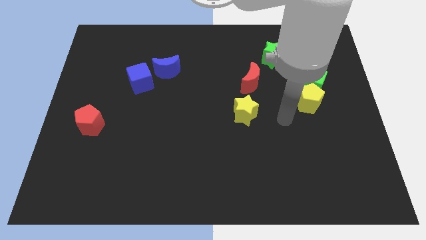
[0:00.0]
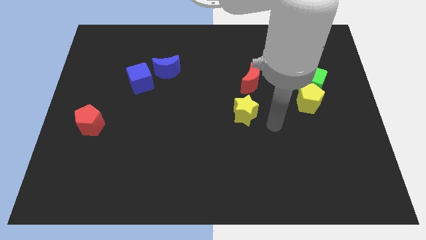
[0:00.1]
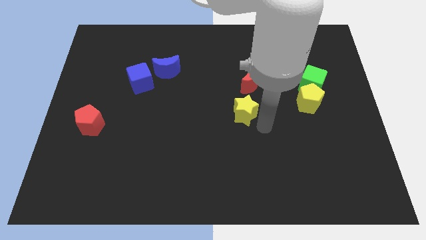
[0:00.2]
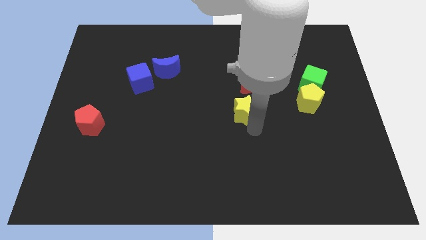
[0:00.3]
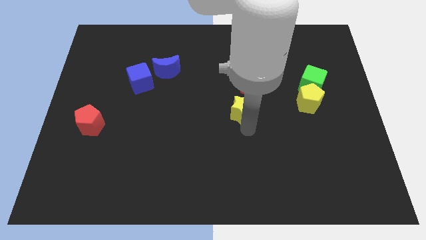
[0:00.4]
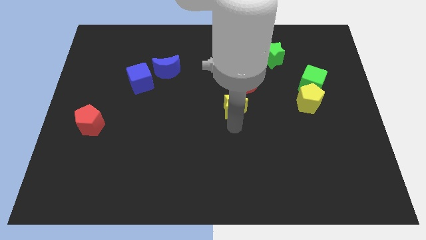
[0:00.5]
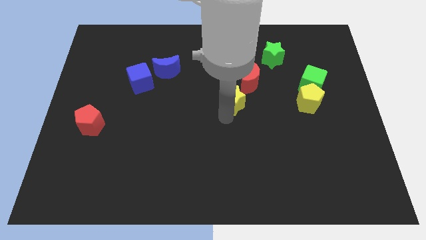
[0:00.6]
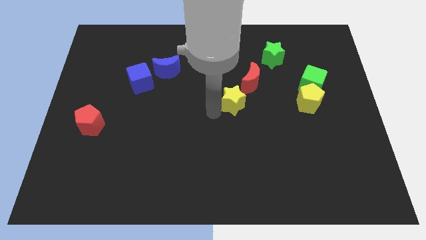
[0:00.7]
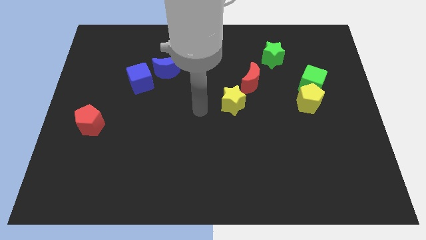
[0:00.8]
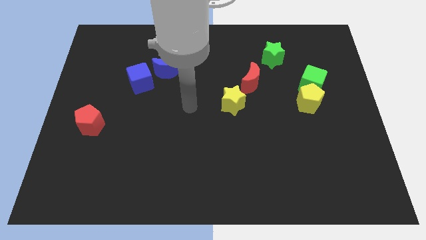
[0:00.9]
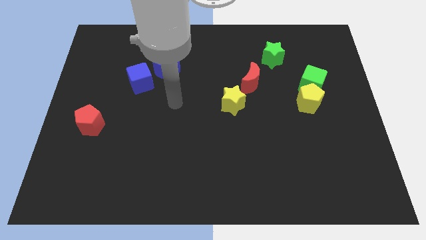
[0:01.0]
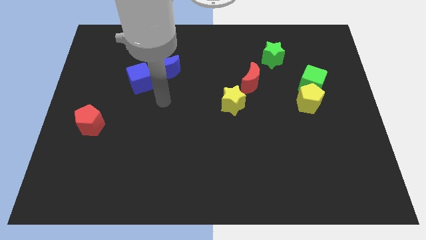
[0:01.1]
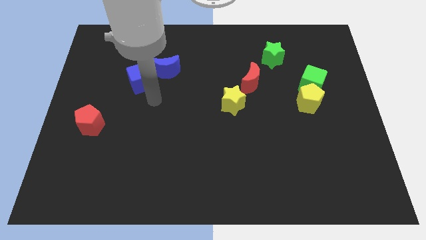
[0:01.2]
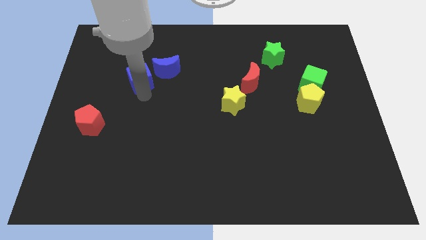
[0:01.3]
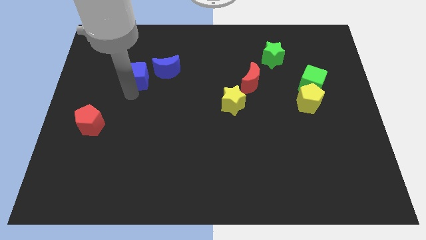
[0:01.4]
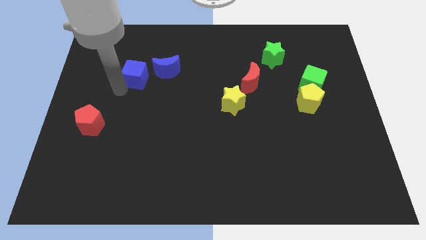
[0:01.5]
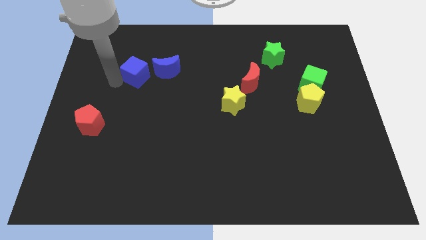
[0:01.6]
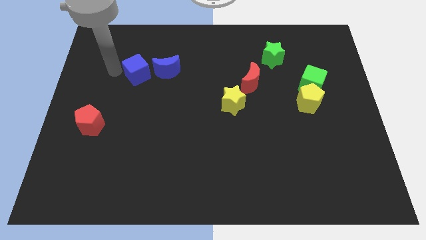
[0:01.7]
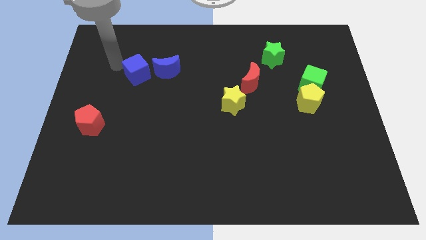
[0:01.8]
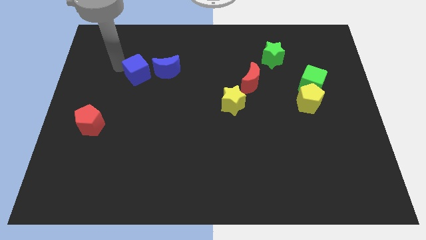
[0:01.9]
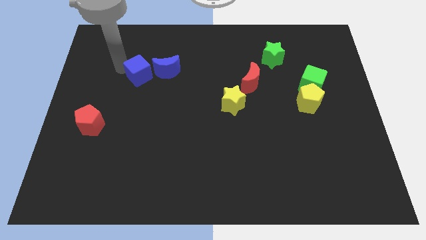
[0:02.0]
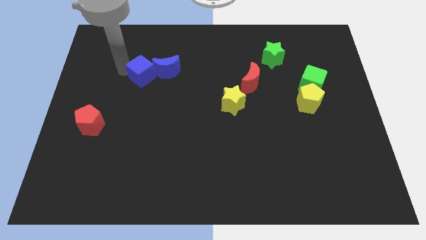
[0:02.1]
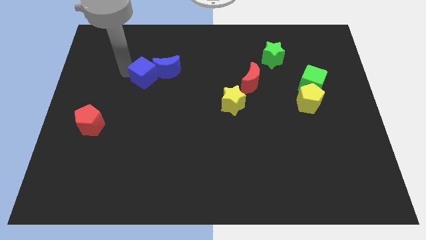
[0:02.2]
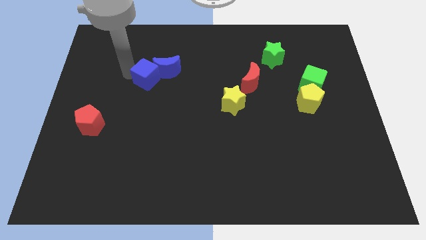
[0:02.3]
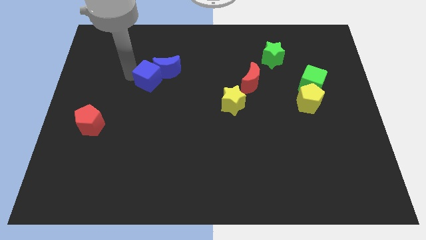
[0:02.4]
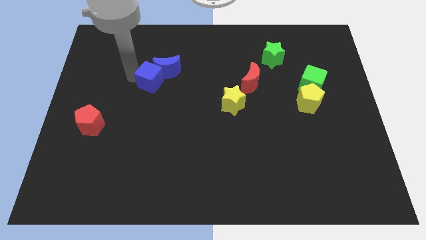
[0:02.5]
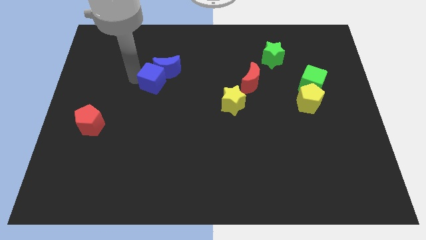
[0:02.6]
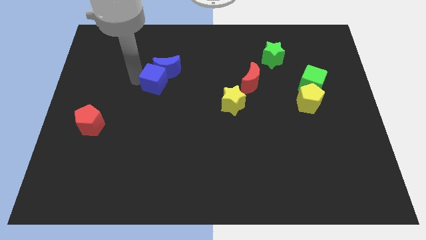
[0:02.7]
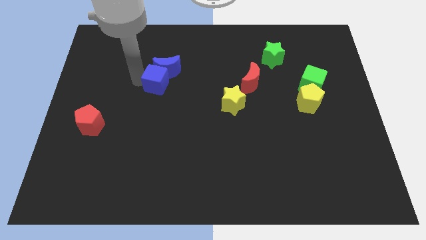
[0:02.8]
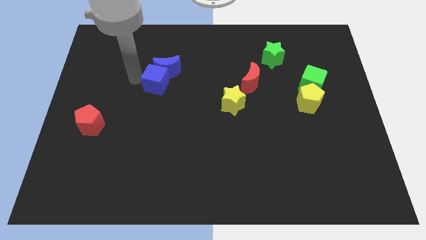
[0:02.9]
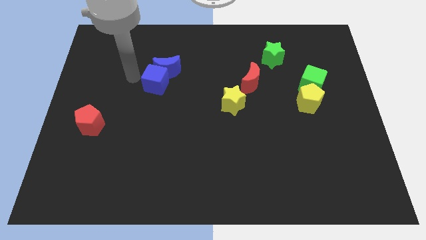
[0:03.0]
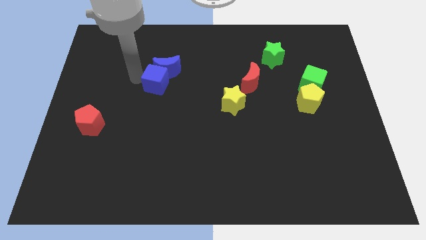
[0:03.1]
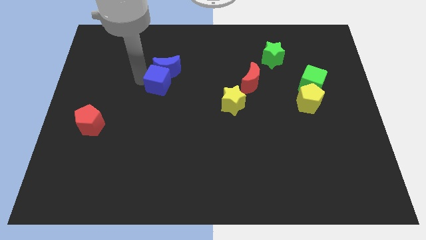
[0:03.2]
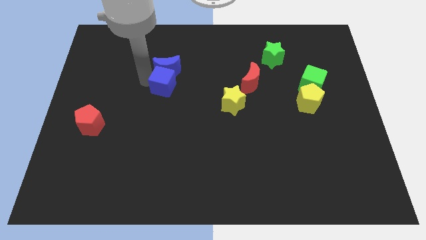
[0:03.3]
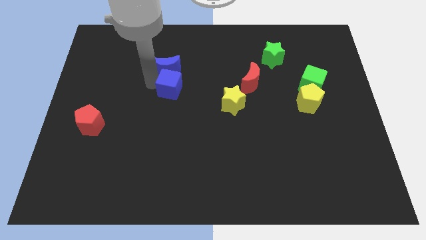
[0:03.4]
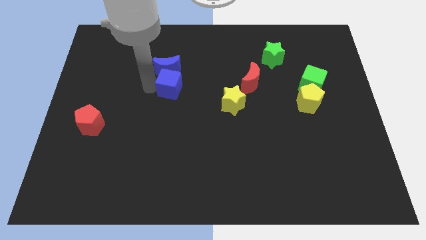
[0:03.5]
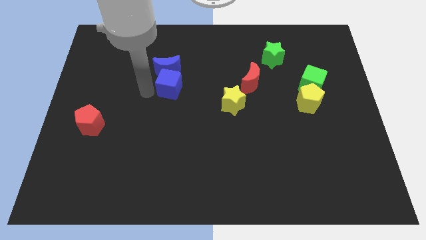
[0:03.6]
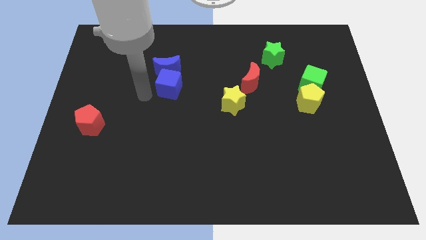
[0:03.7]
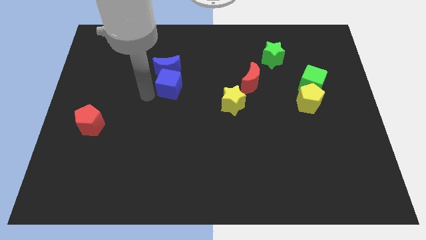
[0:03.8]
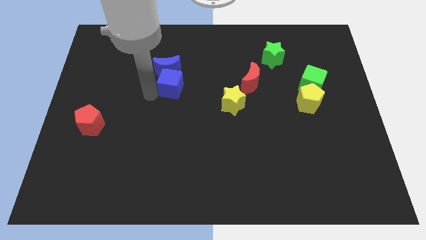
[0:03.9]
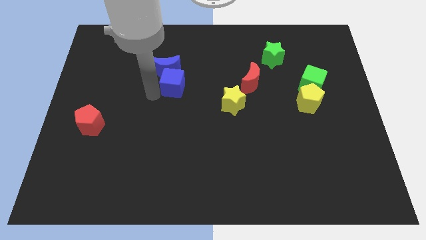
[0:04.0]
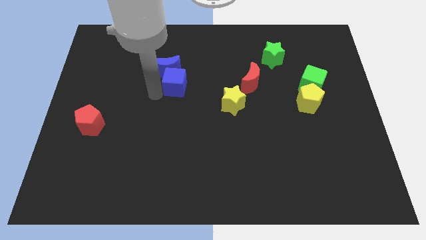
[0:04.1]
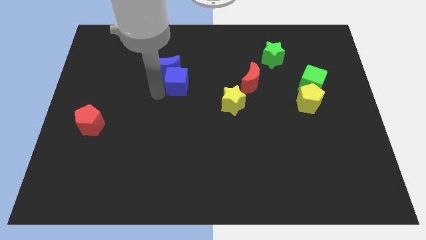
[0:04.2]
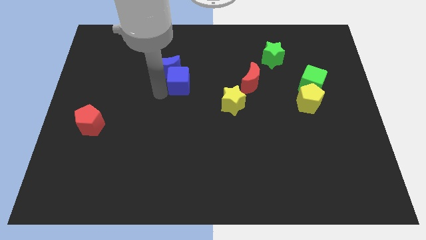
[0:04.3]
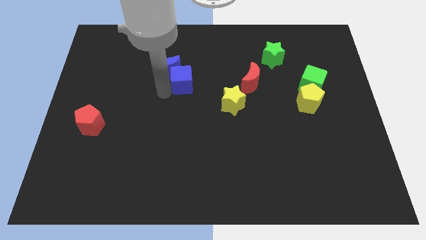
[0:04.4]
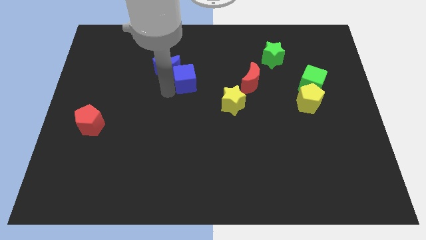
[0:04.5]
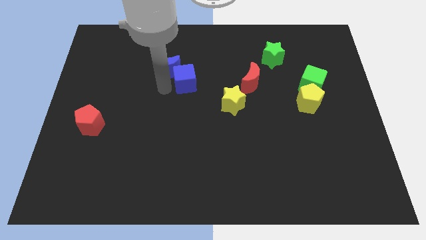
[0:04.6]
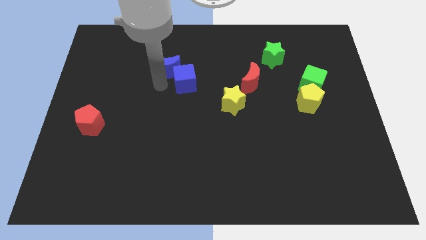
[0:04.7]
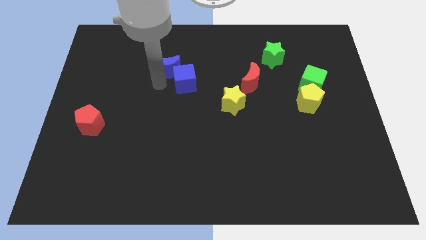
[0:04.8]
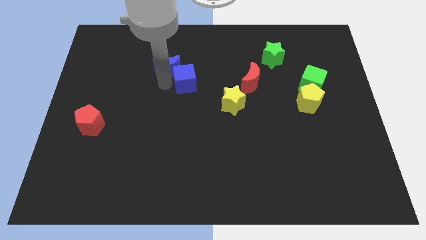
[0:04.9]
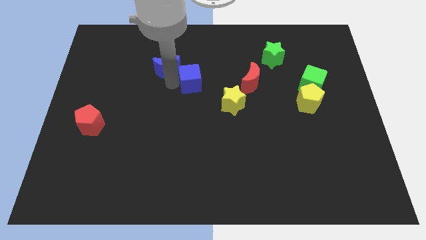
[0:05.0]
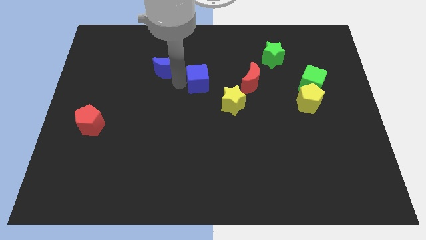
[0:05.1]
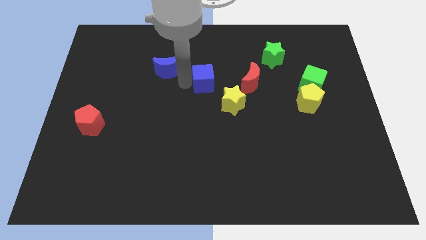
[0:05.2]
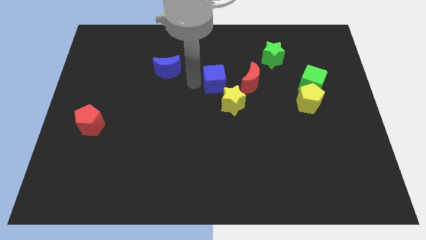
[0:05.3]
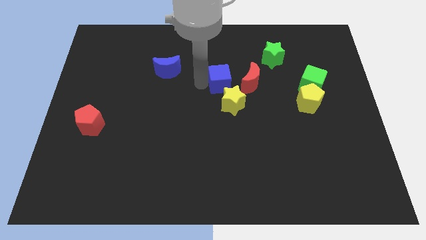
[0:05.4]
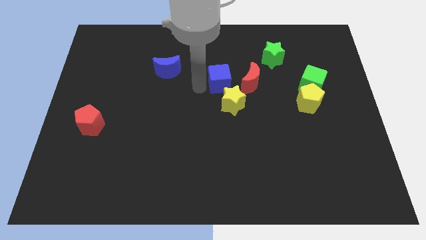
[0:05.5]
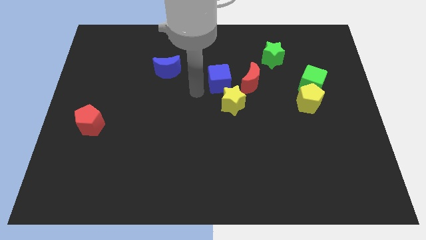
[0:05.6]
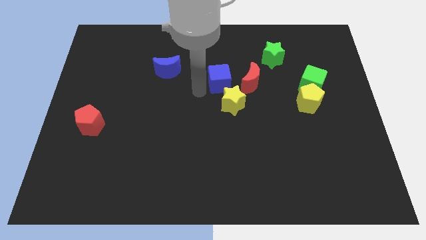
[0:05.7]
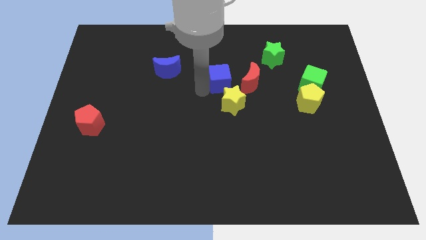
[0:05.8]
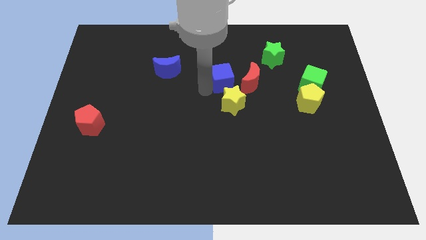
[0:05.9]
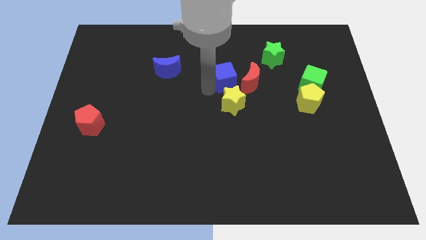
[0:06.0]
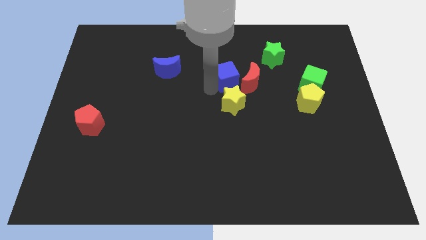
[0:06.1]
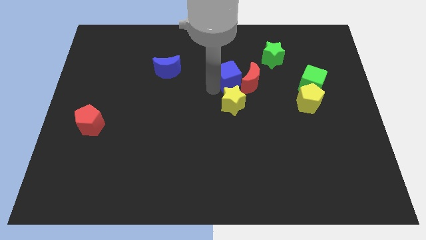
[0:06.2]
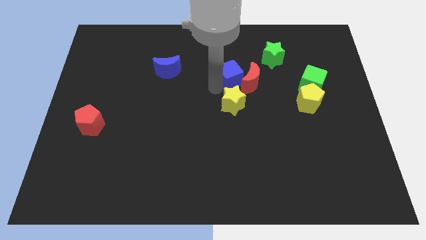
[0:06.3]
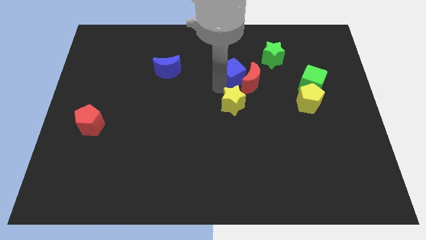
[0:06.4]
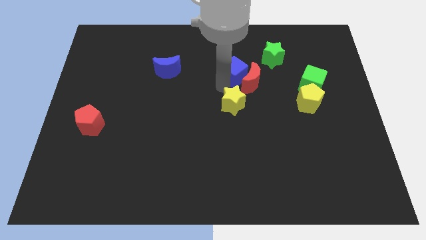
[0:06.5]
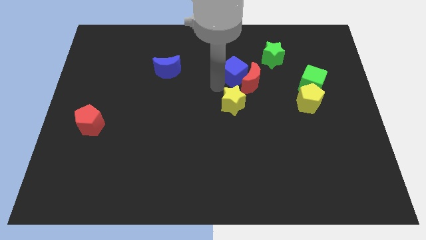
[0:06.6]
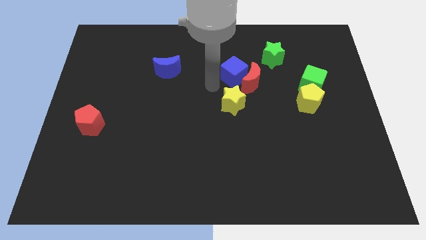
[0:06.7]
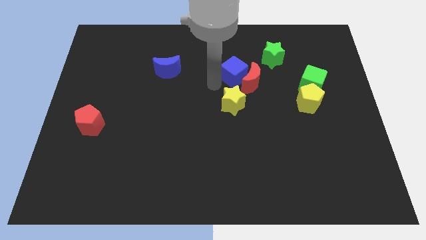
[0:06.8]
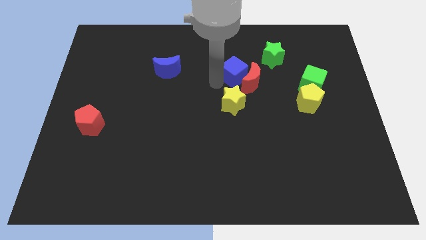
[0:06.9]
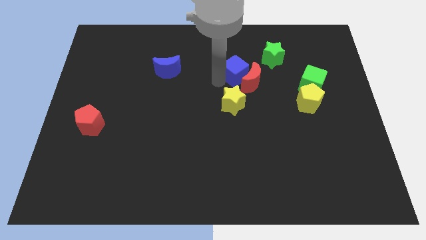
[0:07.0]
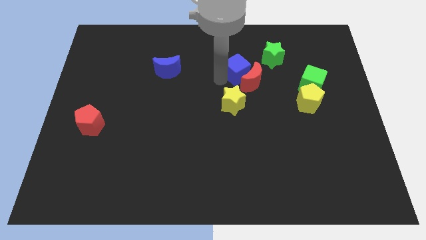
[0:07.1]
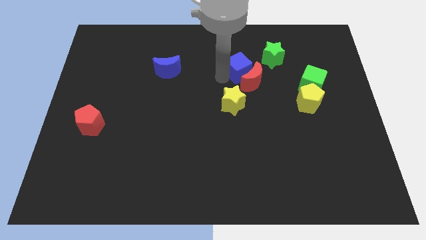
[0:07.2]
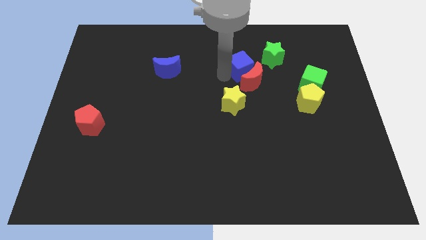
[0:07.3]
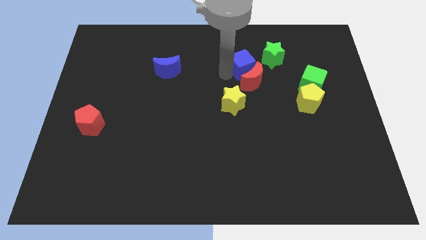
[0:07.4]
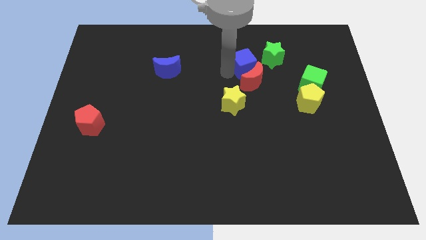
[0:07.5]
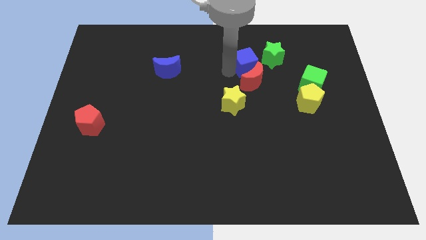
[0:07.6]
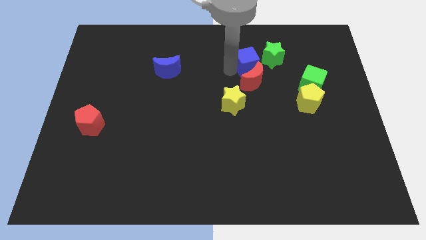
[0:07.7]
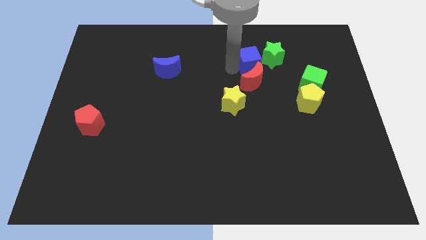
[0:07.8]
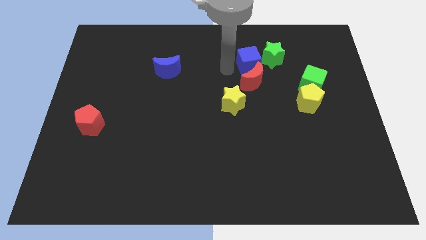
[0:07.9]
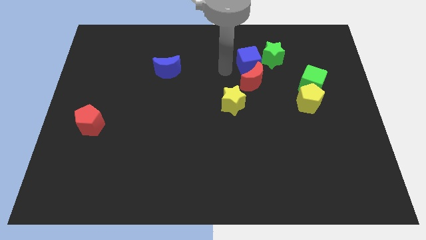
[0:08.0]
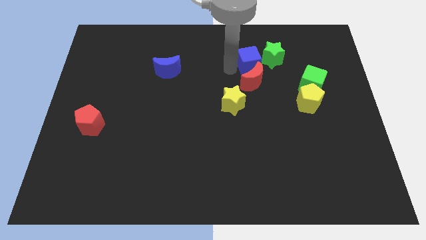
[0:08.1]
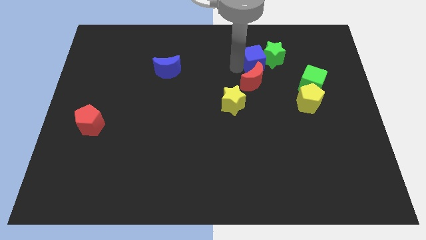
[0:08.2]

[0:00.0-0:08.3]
put the blue cube close to the green star
